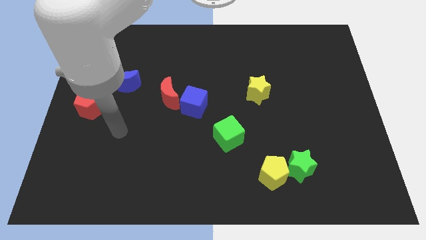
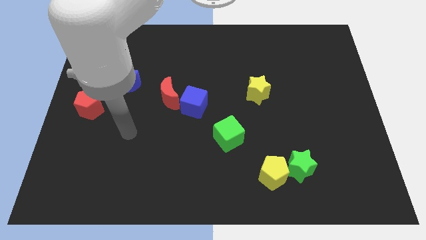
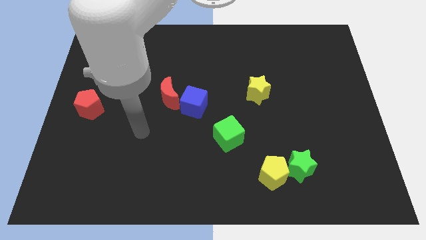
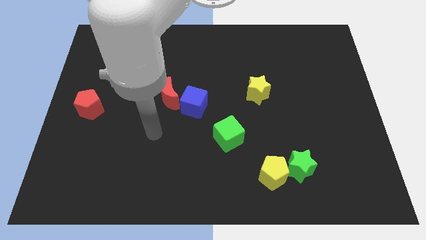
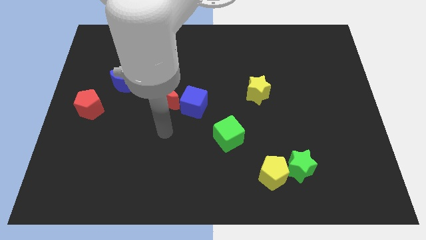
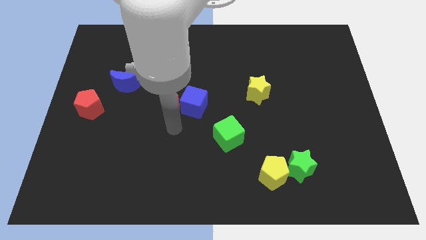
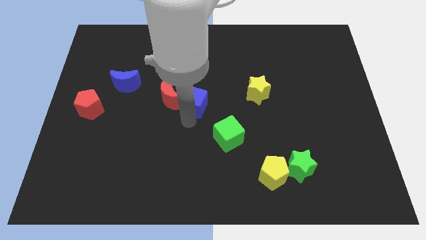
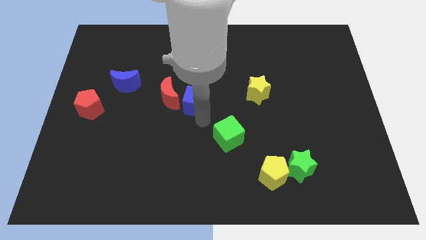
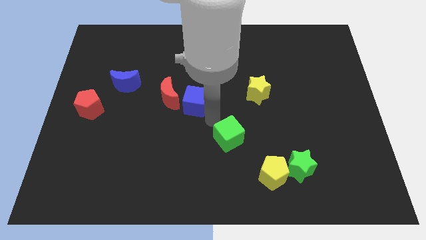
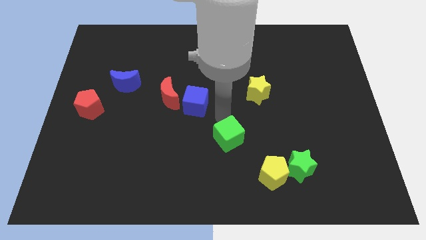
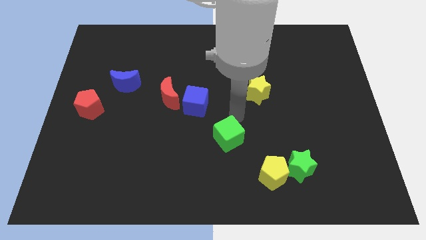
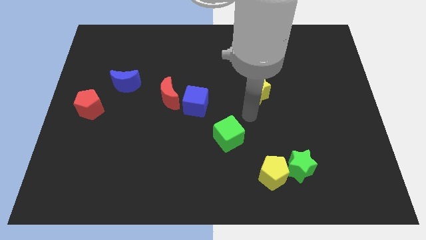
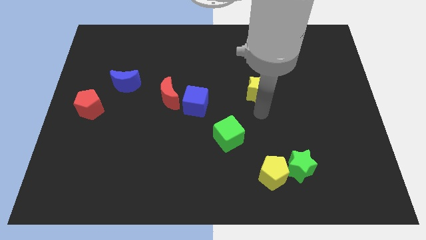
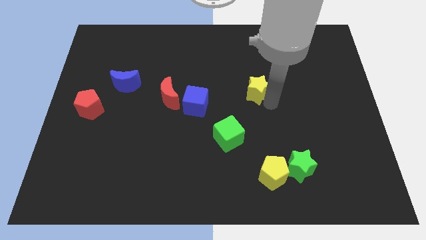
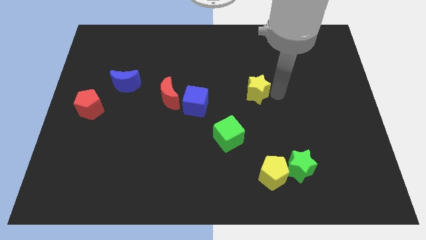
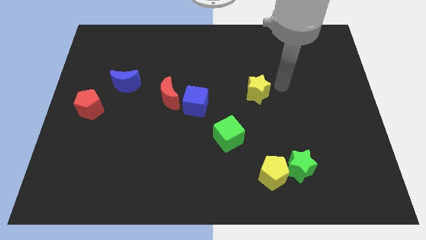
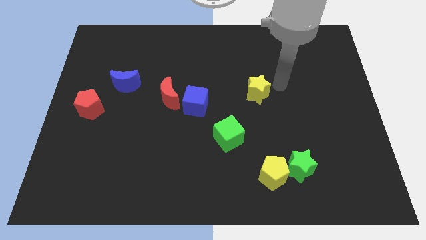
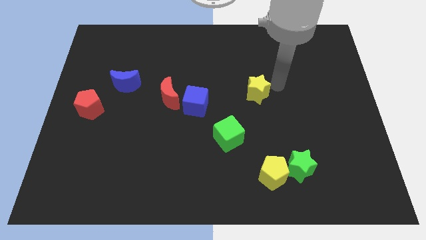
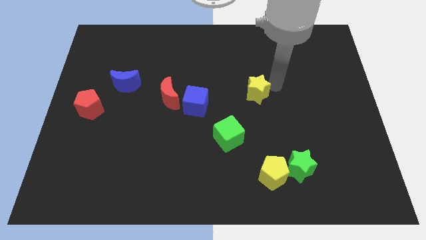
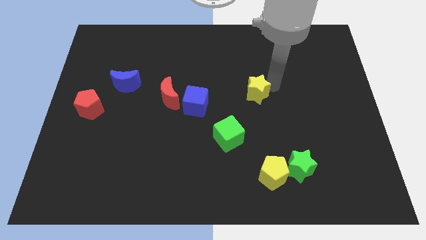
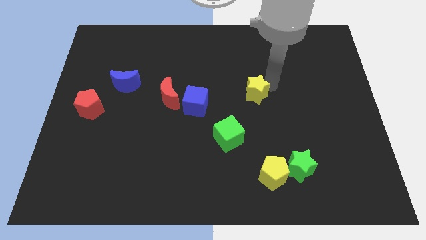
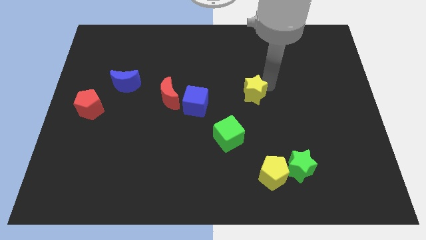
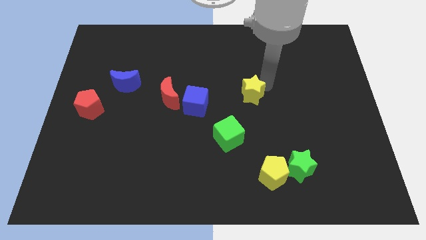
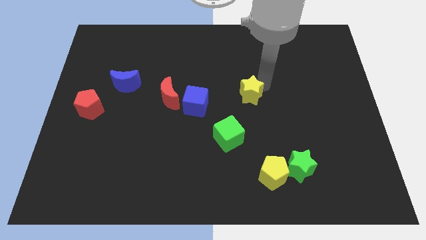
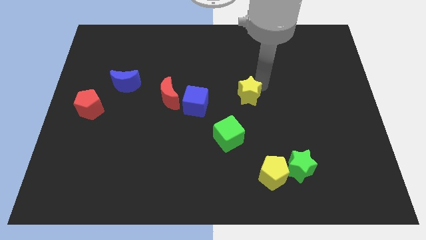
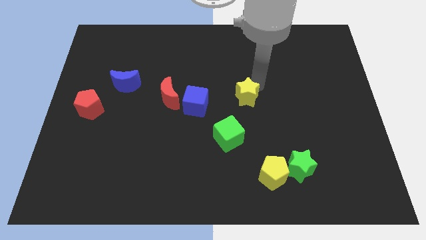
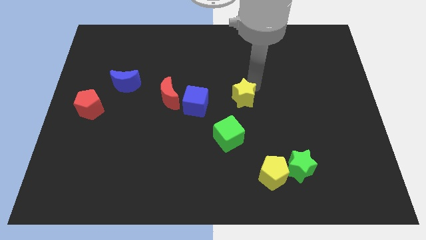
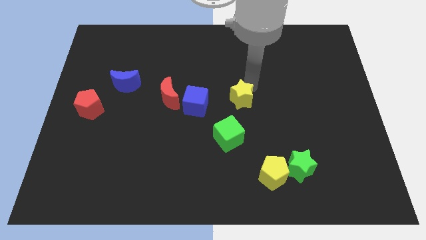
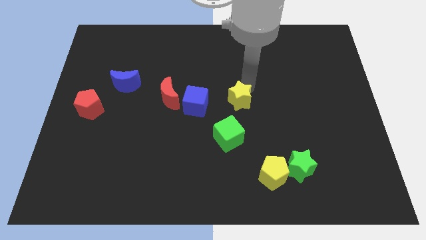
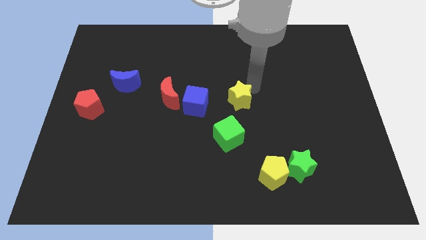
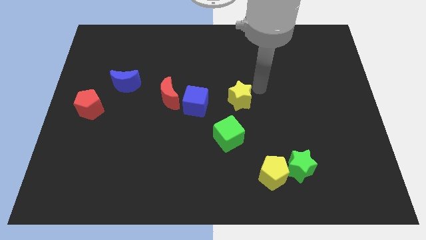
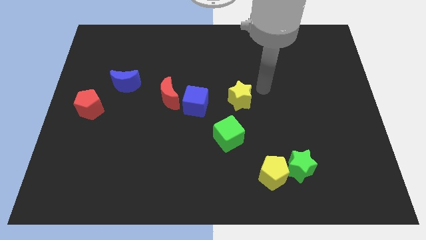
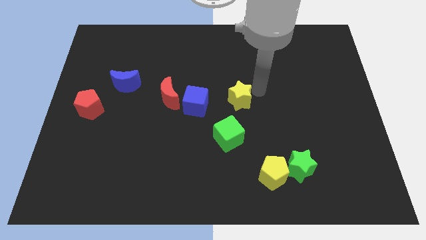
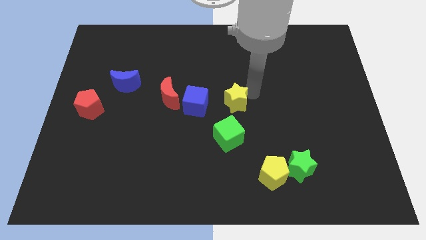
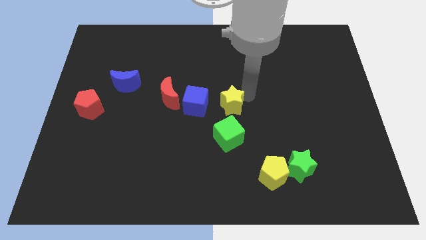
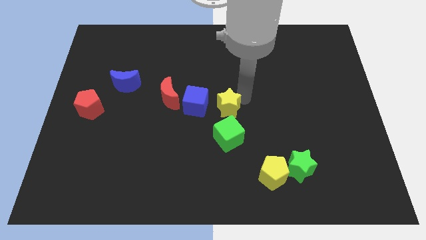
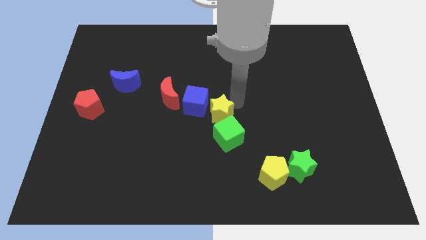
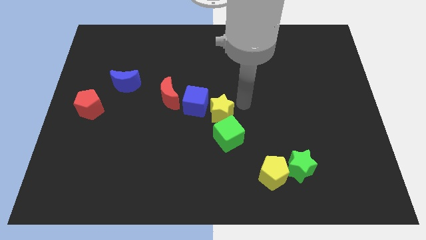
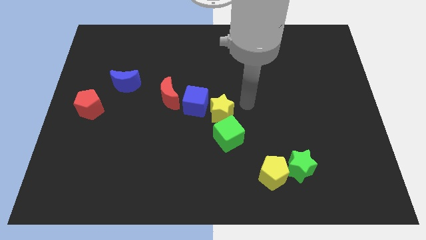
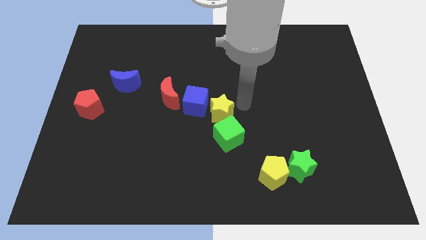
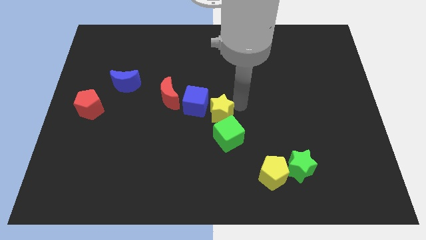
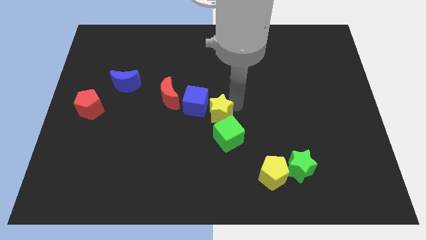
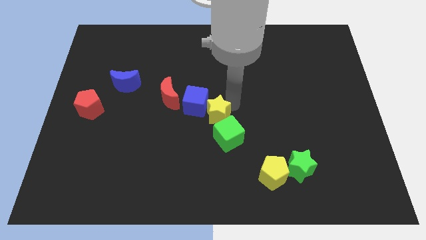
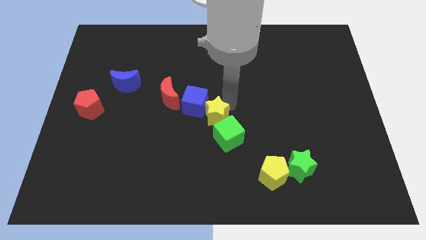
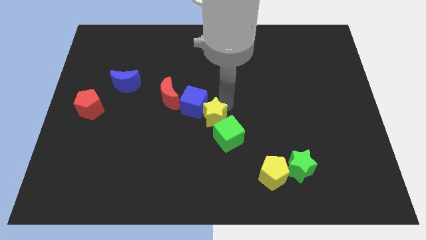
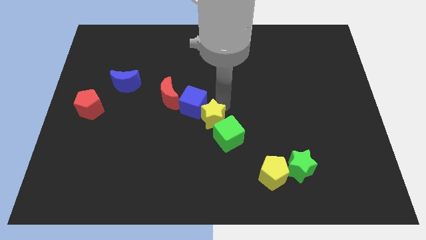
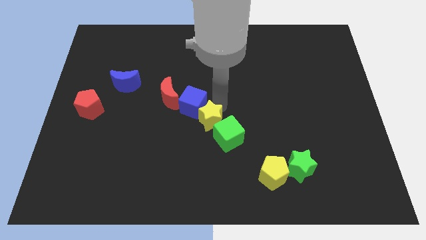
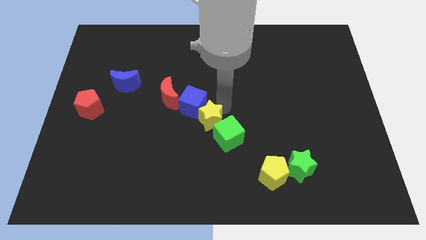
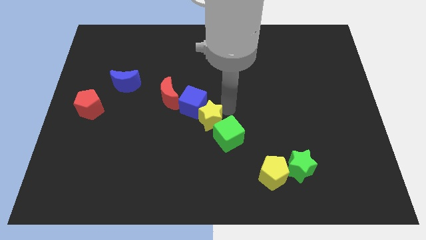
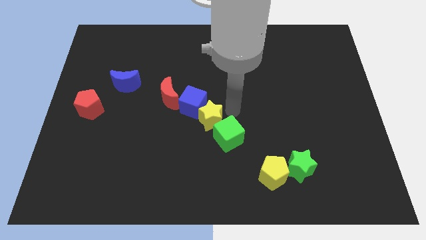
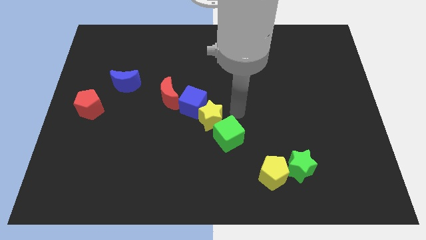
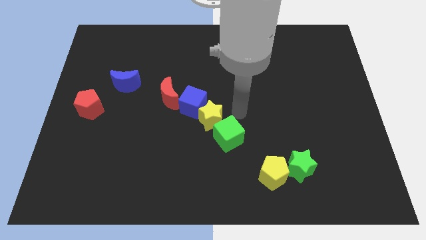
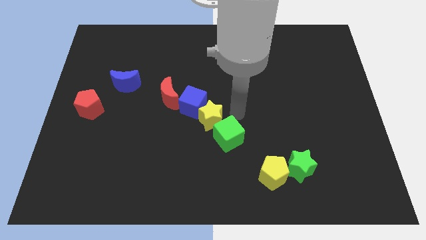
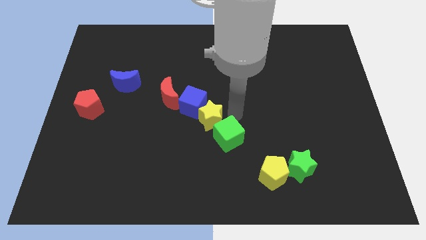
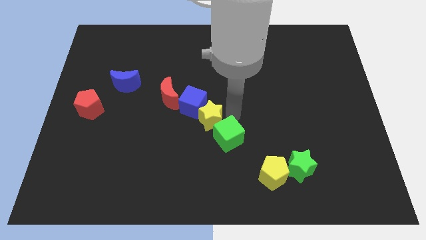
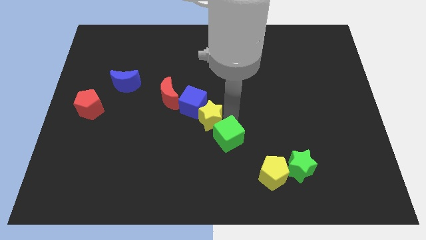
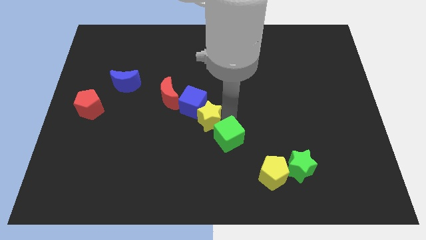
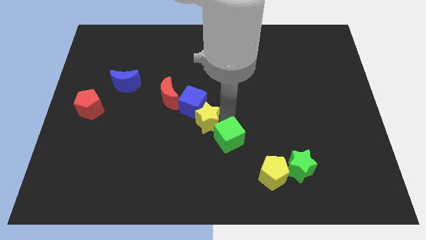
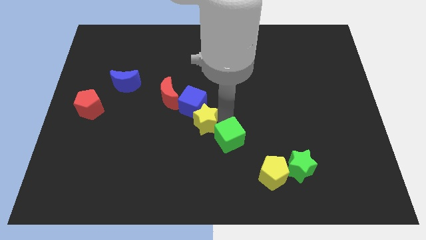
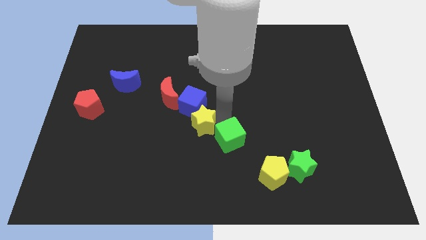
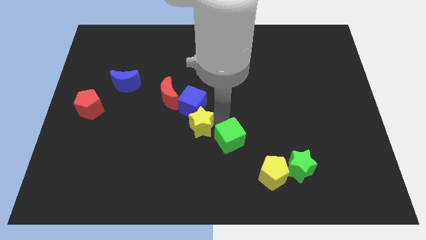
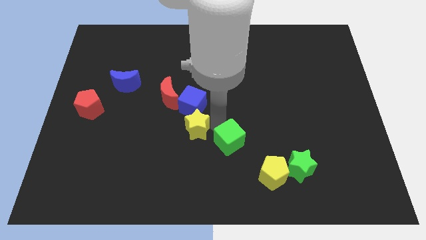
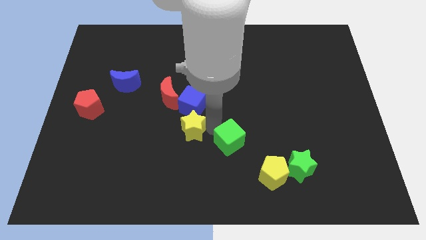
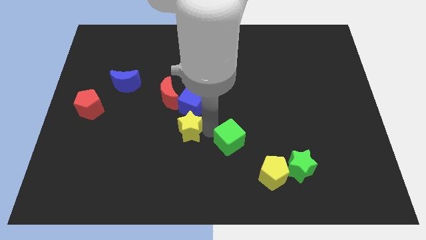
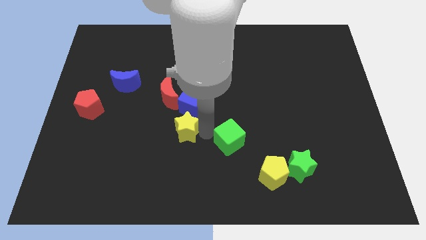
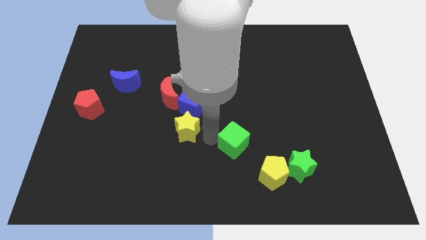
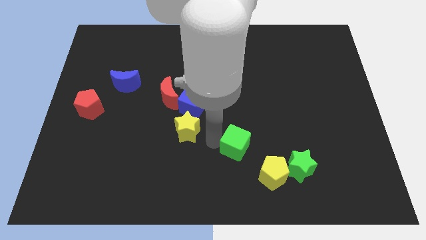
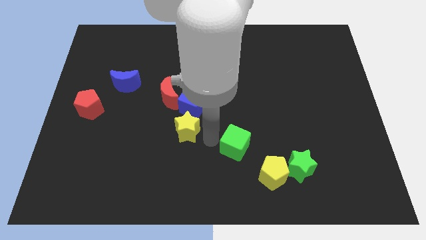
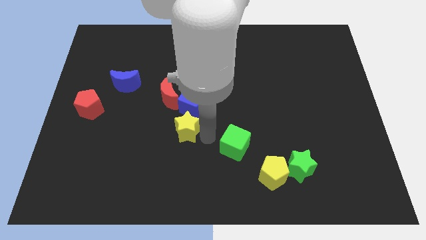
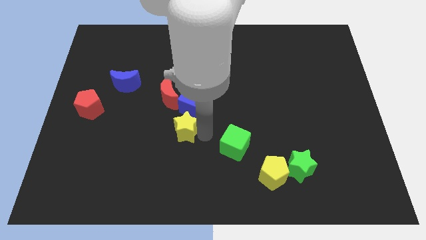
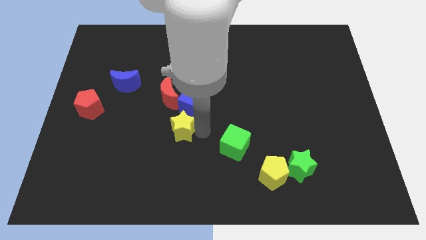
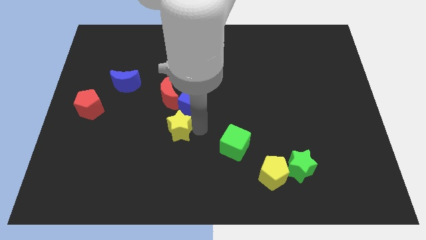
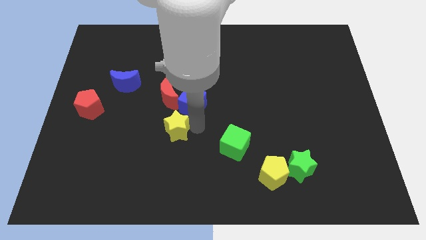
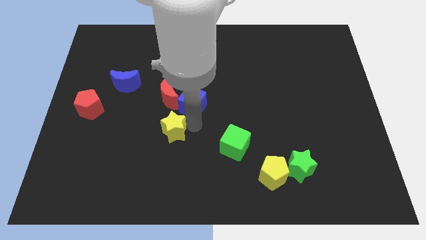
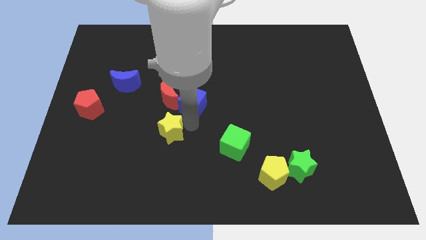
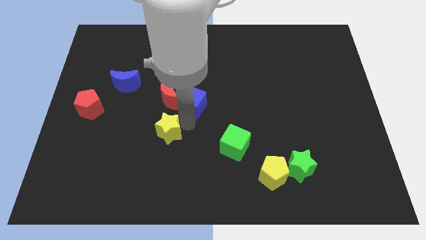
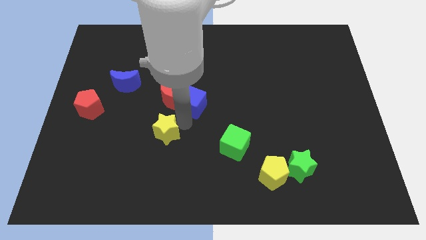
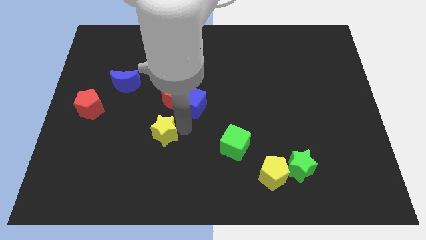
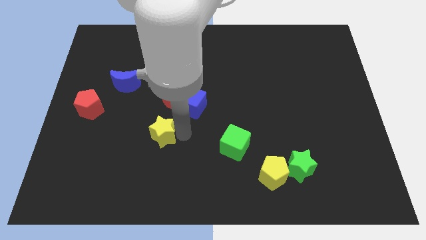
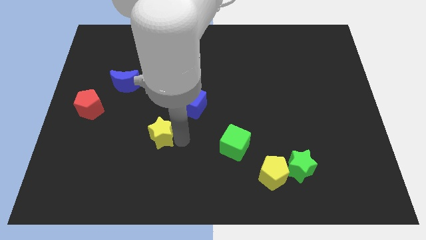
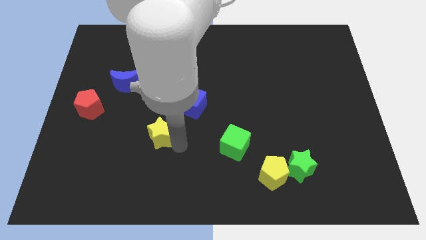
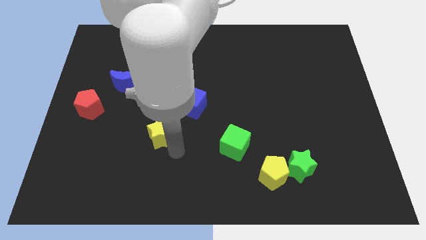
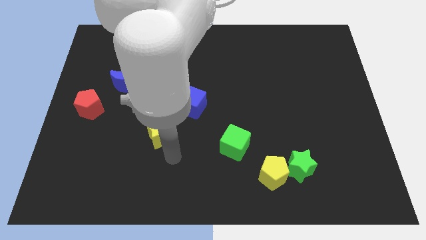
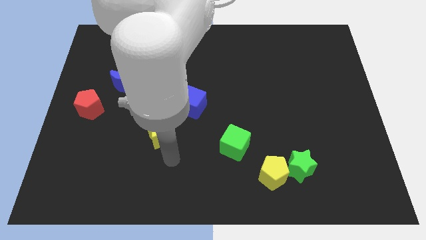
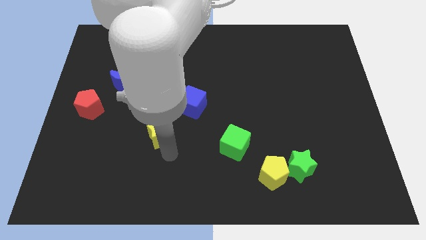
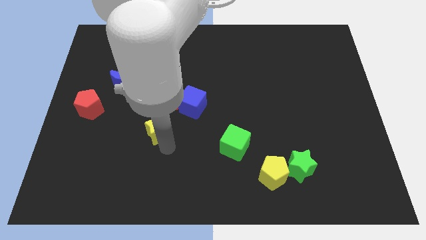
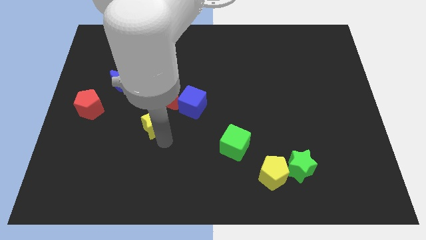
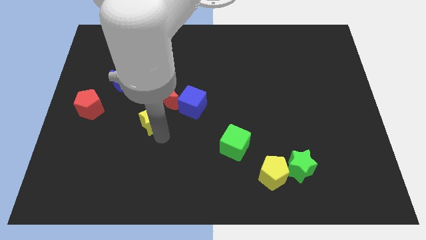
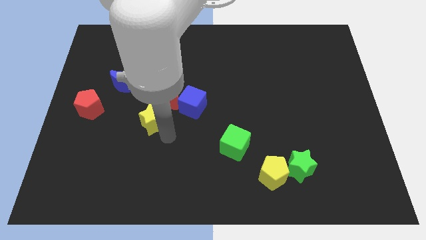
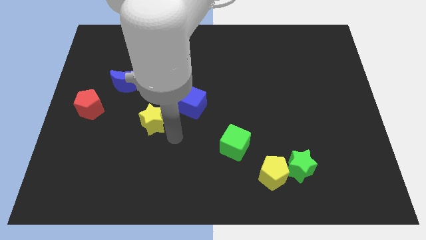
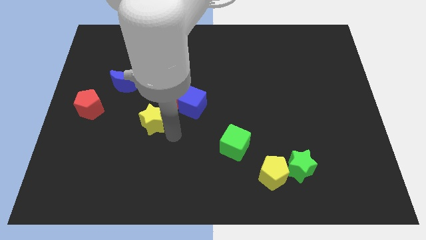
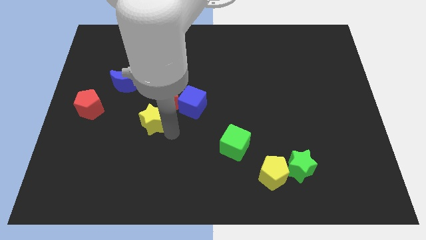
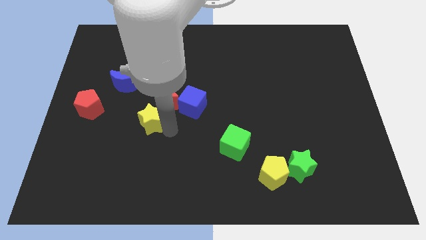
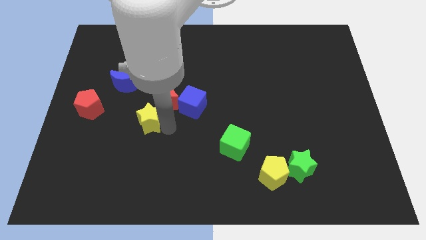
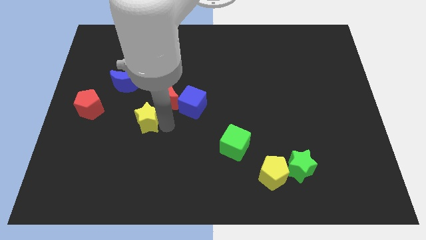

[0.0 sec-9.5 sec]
put the yellow star to the right of the red pentagon
